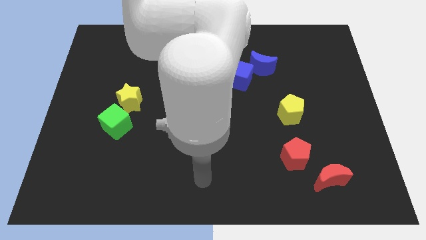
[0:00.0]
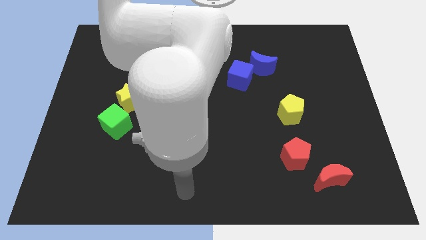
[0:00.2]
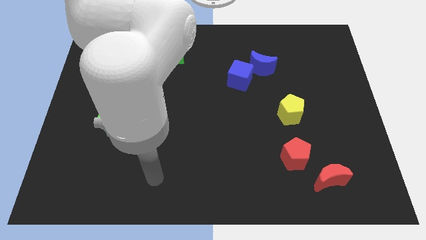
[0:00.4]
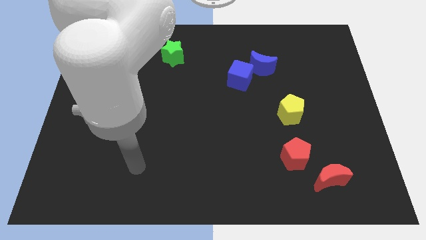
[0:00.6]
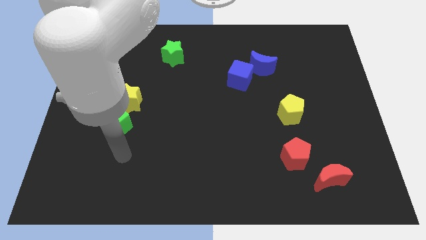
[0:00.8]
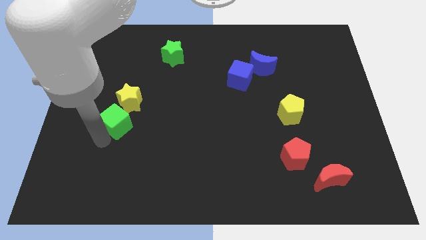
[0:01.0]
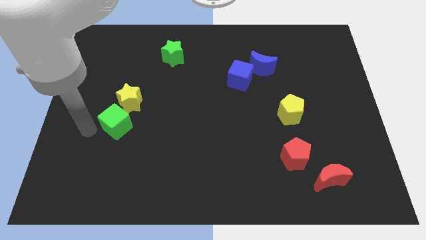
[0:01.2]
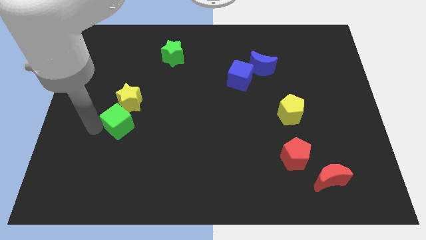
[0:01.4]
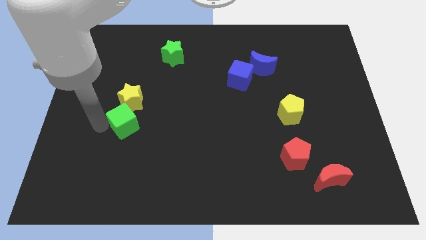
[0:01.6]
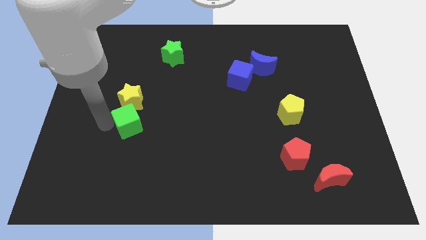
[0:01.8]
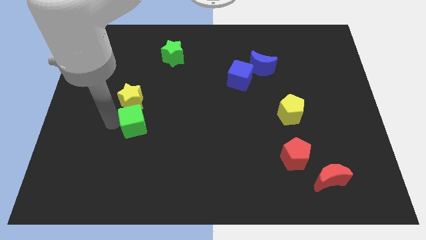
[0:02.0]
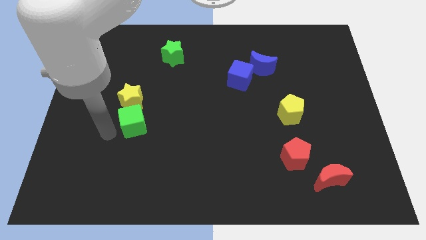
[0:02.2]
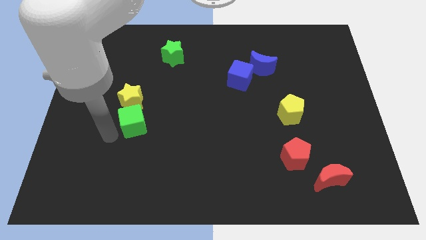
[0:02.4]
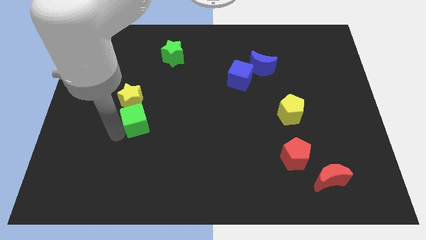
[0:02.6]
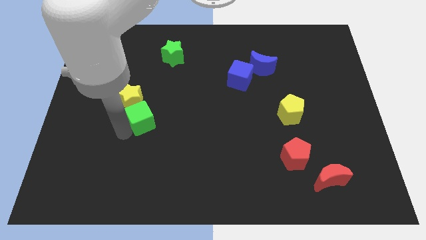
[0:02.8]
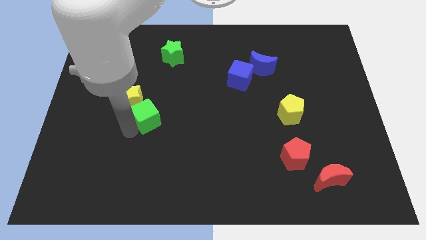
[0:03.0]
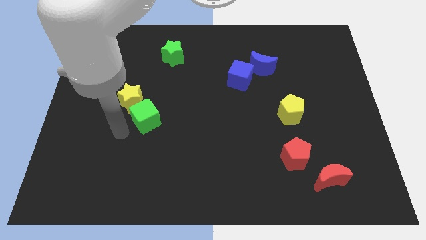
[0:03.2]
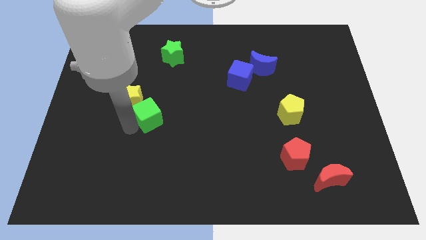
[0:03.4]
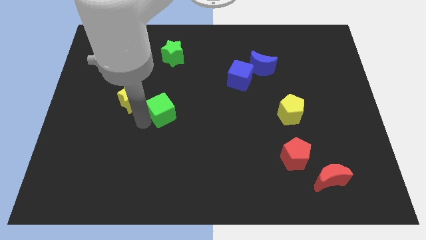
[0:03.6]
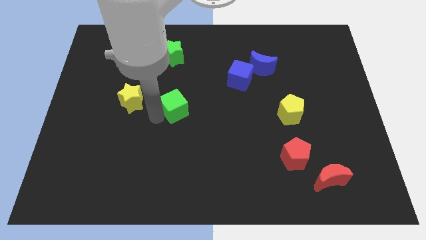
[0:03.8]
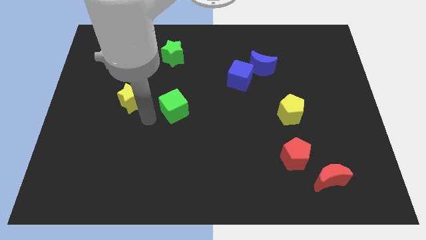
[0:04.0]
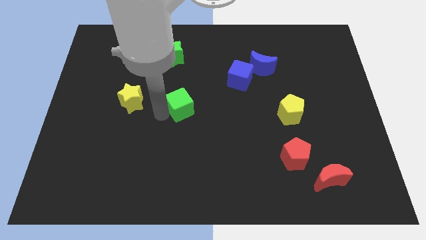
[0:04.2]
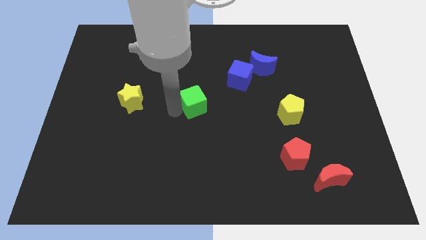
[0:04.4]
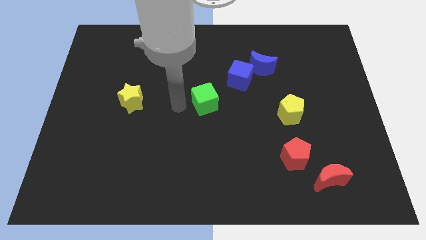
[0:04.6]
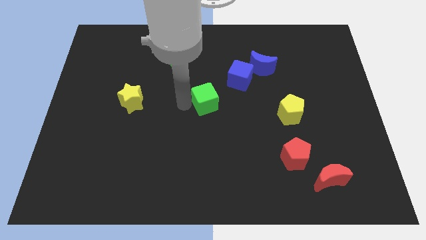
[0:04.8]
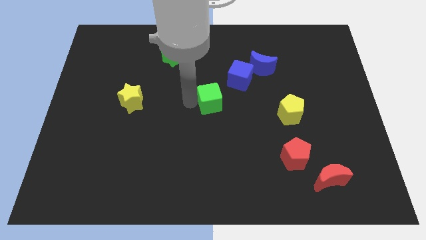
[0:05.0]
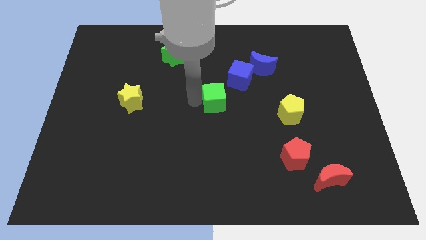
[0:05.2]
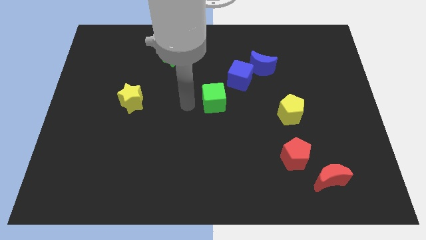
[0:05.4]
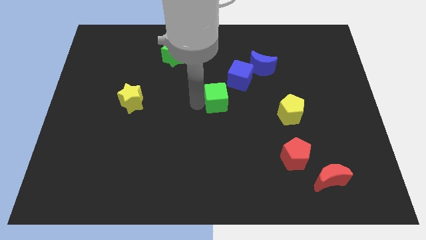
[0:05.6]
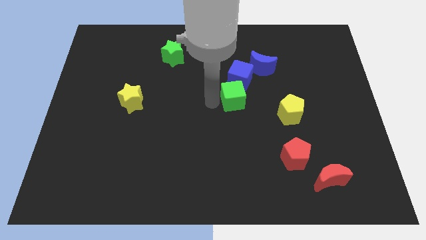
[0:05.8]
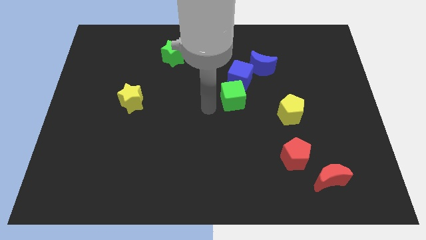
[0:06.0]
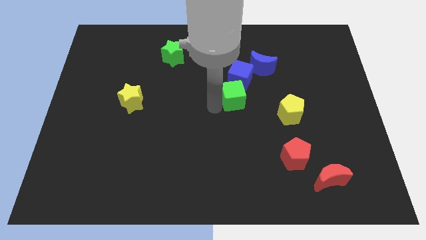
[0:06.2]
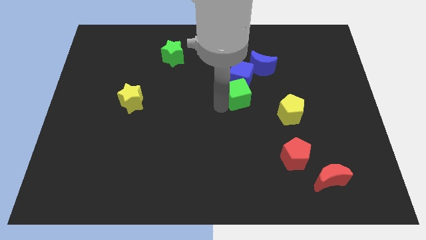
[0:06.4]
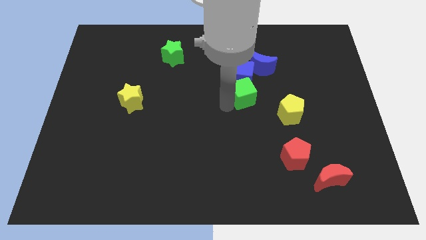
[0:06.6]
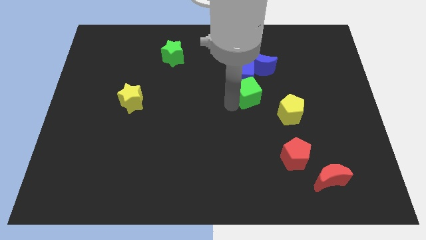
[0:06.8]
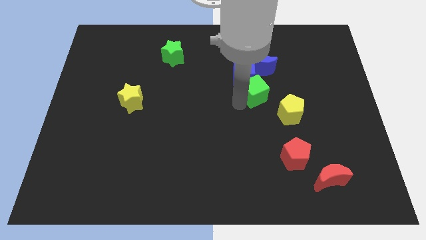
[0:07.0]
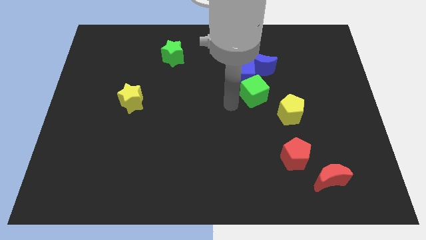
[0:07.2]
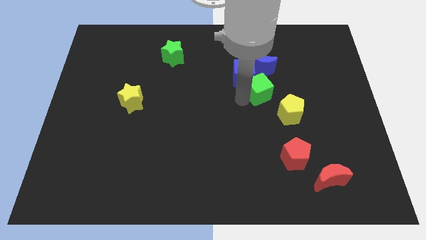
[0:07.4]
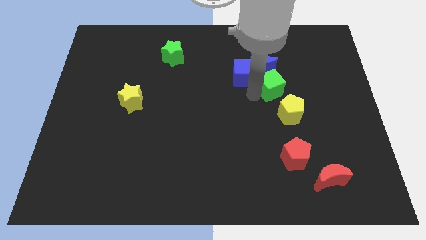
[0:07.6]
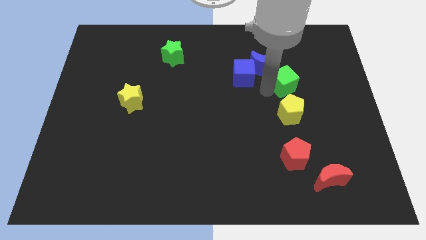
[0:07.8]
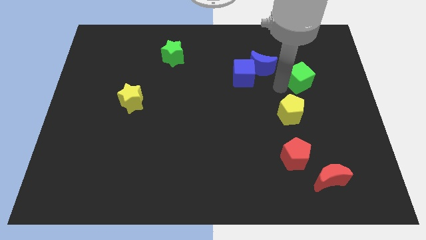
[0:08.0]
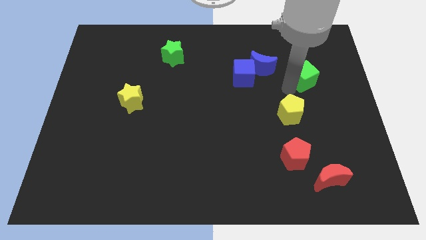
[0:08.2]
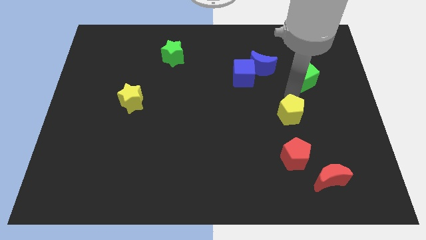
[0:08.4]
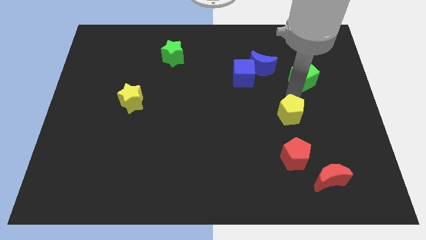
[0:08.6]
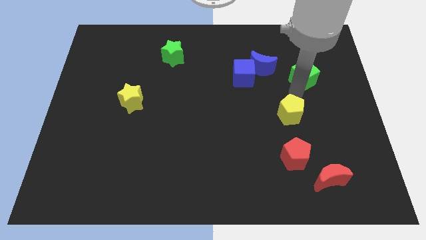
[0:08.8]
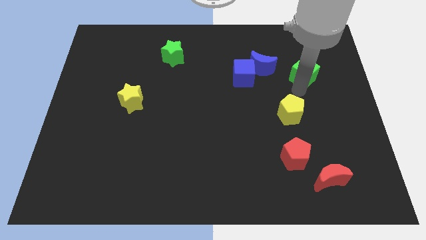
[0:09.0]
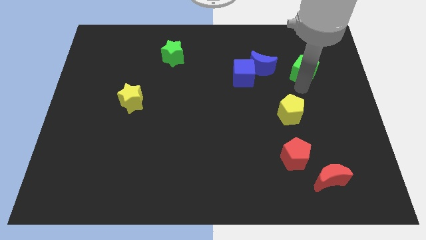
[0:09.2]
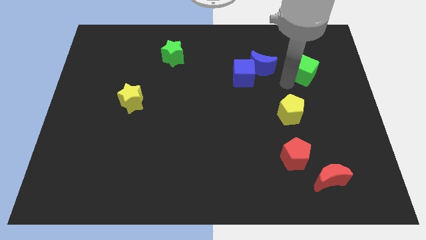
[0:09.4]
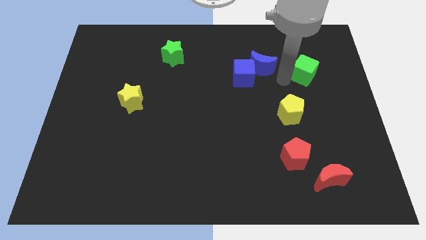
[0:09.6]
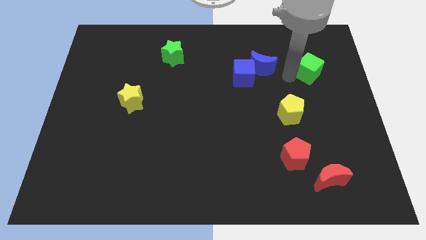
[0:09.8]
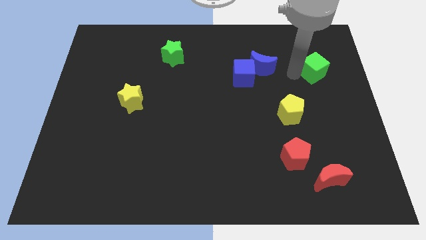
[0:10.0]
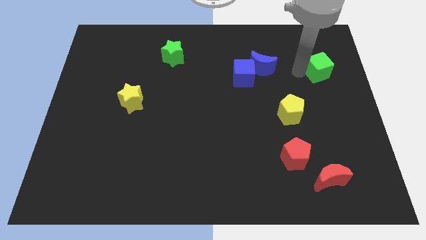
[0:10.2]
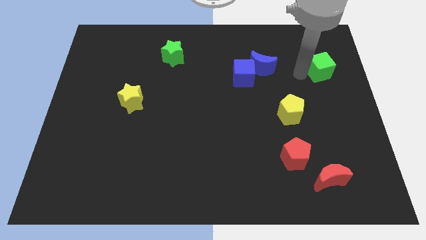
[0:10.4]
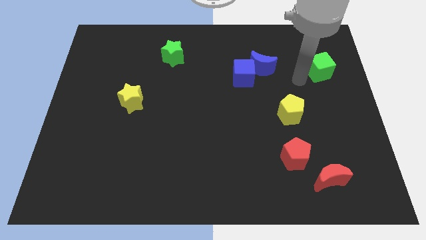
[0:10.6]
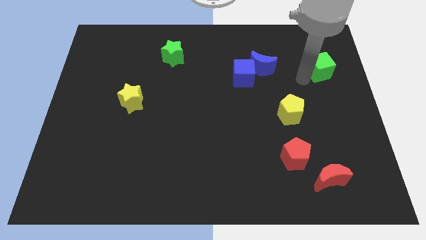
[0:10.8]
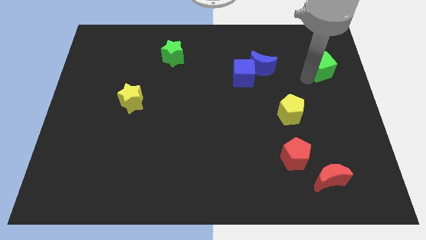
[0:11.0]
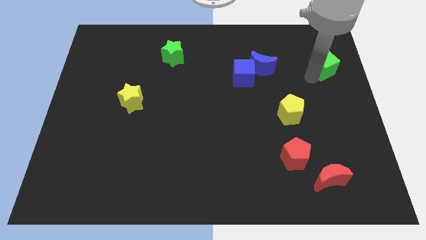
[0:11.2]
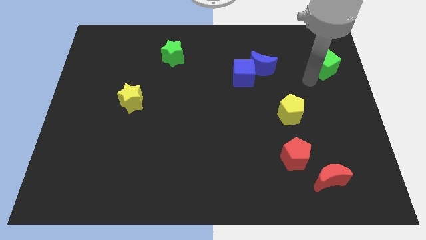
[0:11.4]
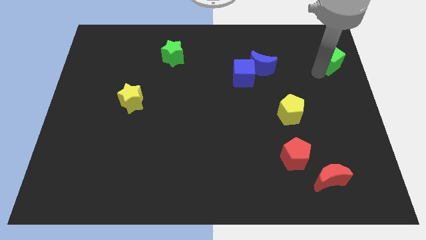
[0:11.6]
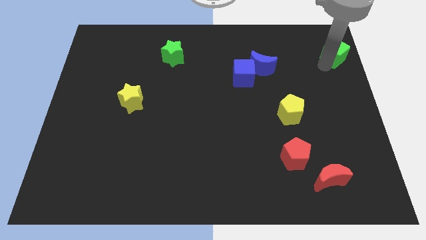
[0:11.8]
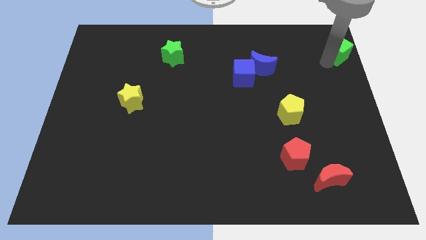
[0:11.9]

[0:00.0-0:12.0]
slide the green cube to the top right of the board
